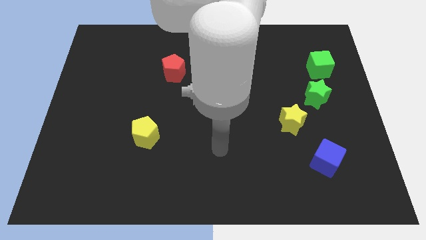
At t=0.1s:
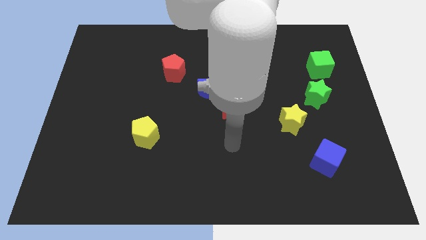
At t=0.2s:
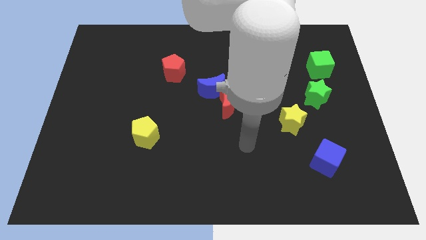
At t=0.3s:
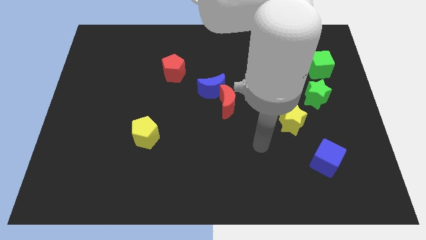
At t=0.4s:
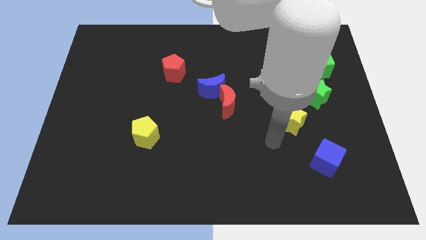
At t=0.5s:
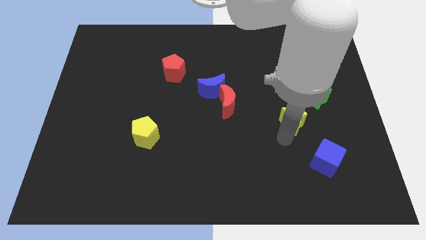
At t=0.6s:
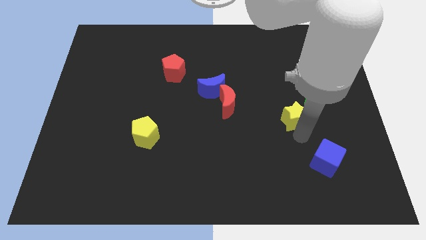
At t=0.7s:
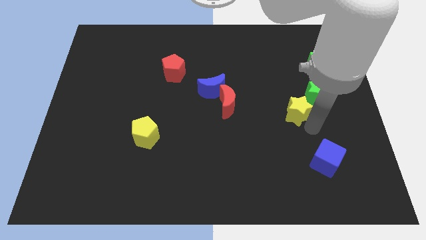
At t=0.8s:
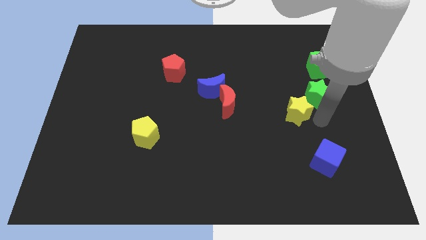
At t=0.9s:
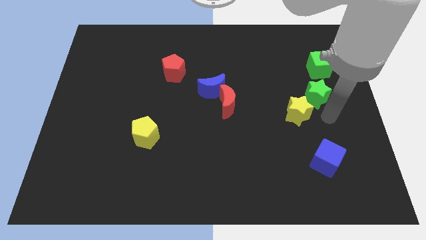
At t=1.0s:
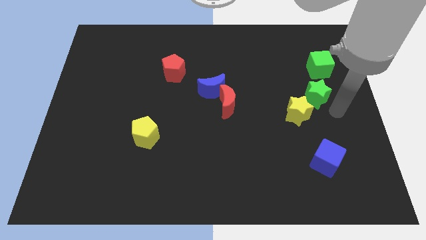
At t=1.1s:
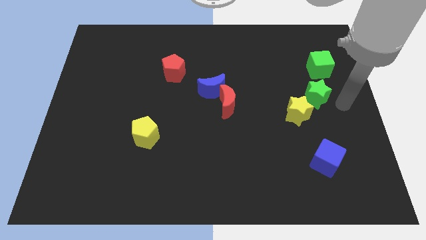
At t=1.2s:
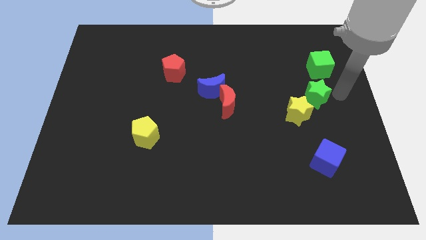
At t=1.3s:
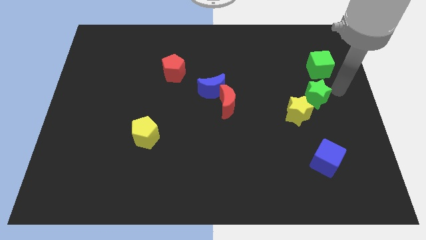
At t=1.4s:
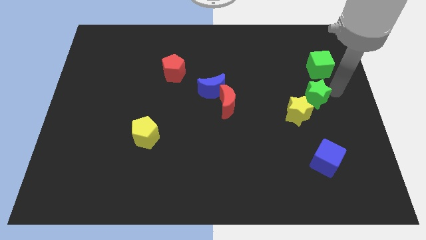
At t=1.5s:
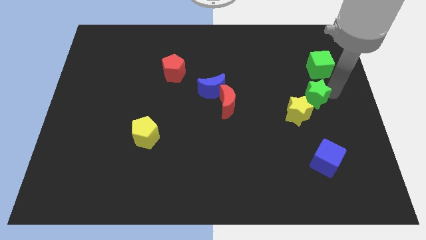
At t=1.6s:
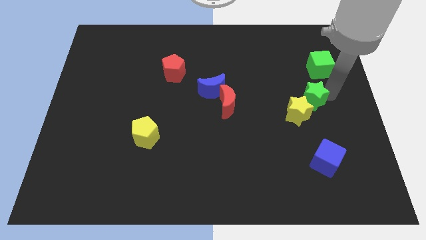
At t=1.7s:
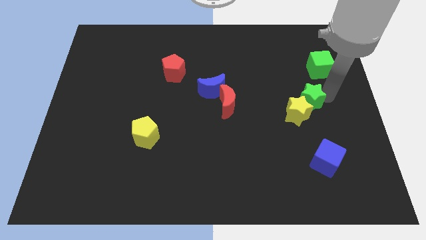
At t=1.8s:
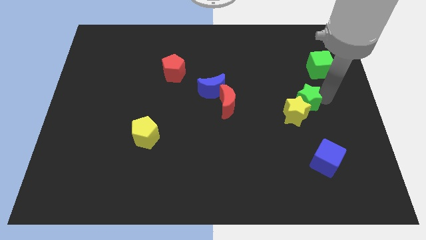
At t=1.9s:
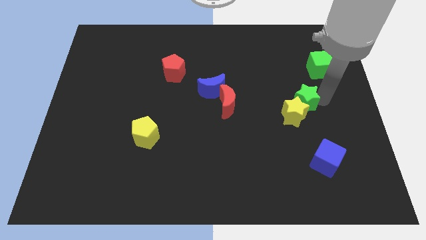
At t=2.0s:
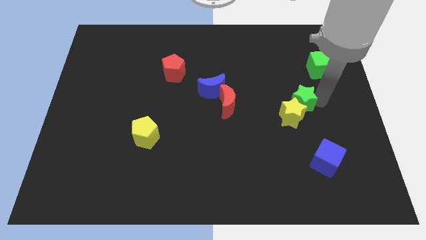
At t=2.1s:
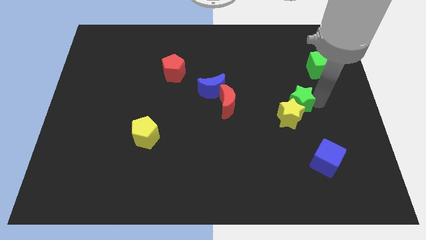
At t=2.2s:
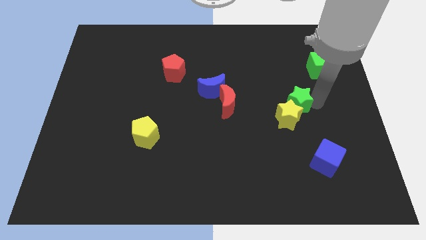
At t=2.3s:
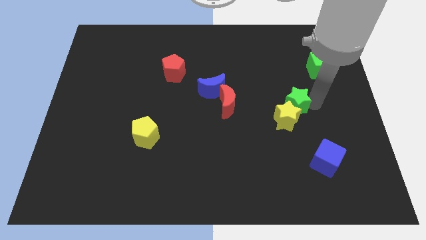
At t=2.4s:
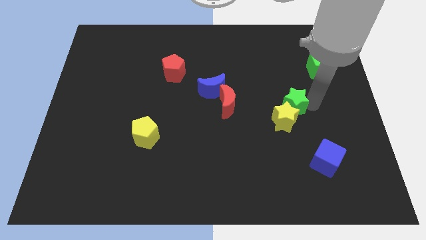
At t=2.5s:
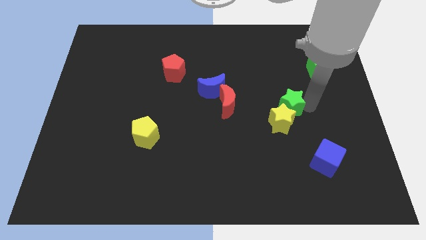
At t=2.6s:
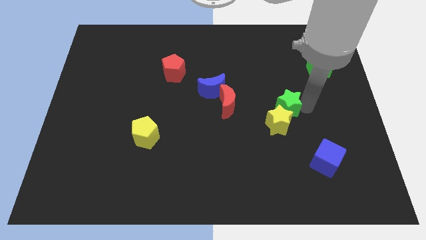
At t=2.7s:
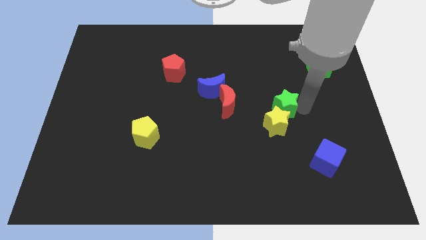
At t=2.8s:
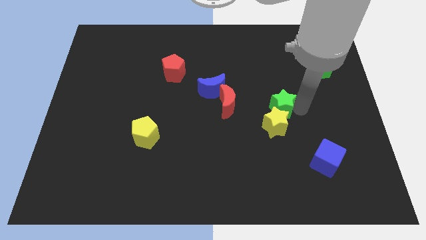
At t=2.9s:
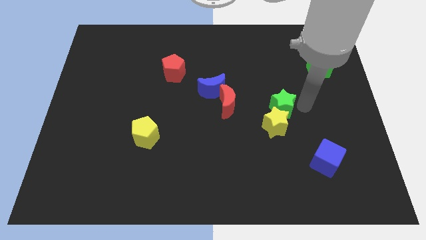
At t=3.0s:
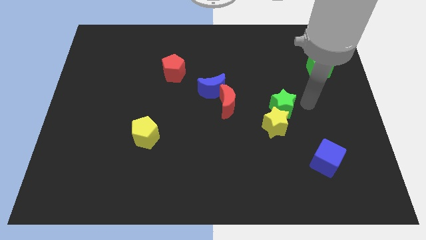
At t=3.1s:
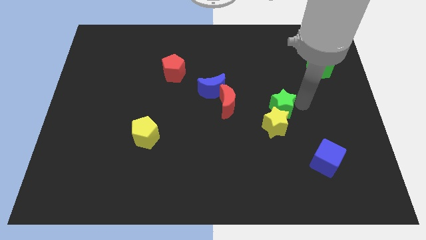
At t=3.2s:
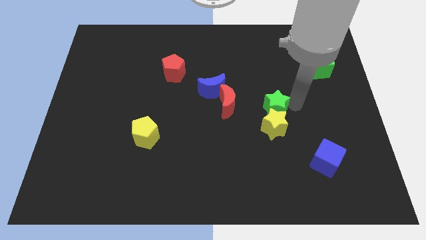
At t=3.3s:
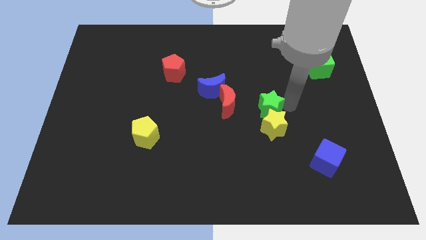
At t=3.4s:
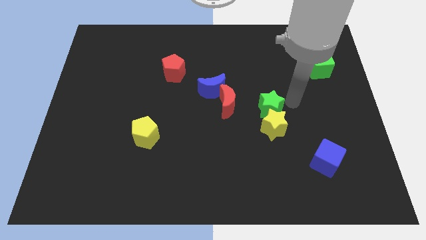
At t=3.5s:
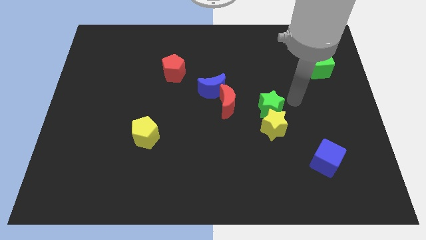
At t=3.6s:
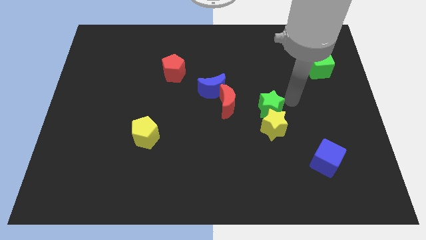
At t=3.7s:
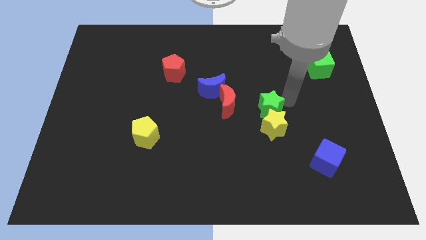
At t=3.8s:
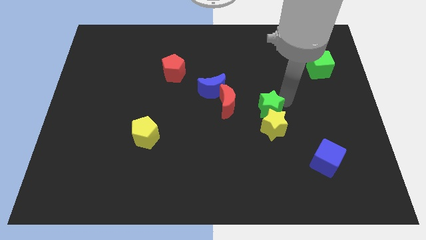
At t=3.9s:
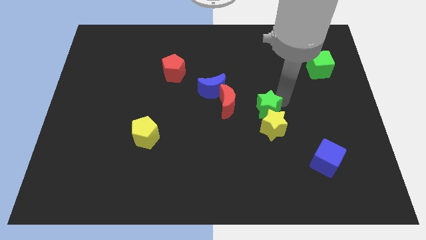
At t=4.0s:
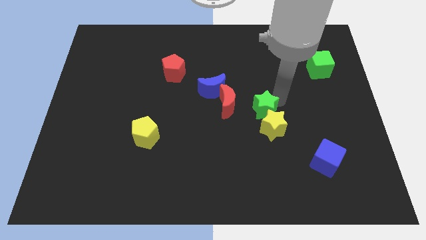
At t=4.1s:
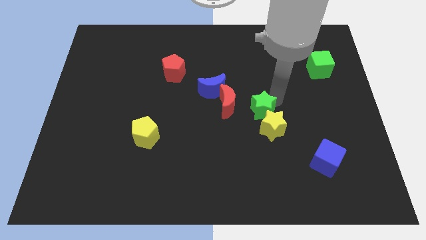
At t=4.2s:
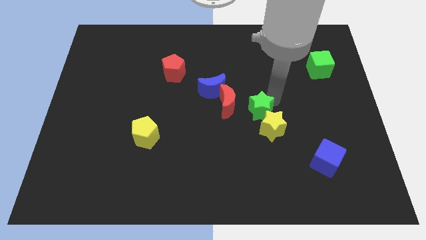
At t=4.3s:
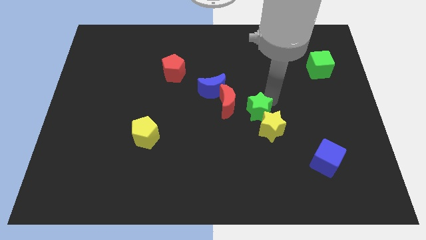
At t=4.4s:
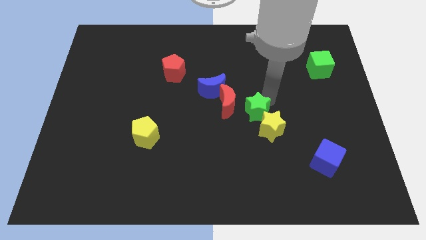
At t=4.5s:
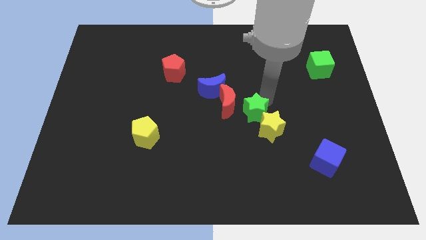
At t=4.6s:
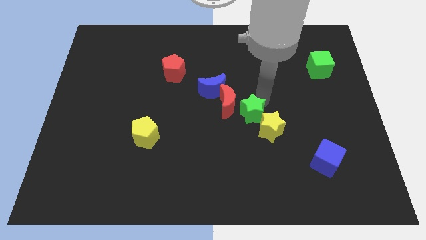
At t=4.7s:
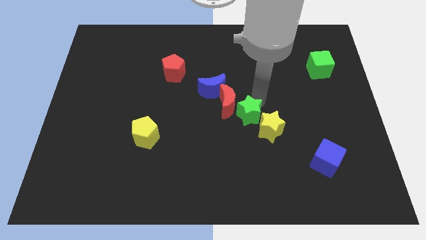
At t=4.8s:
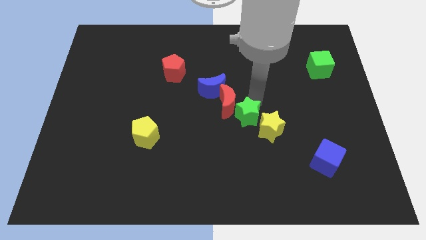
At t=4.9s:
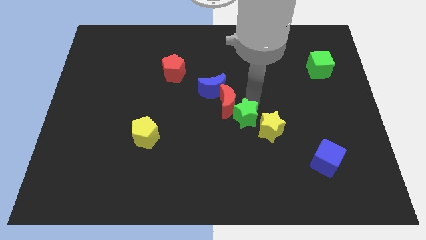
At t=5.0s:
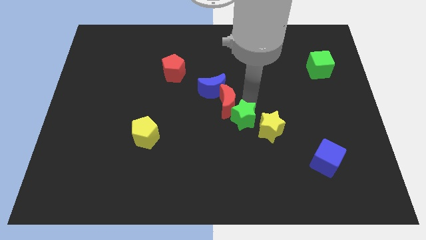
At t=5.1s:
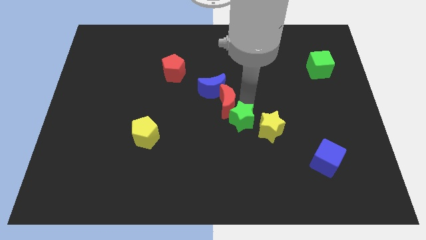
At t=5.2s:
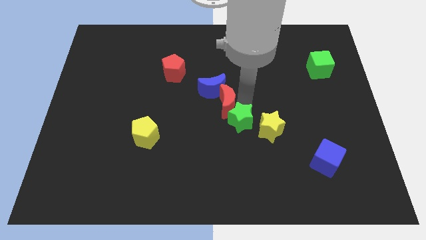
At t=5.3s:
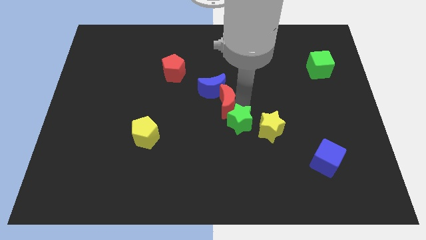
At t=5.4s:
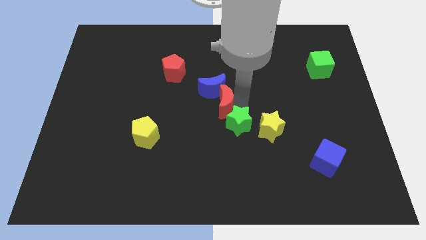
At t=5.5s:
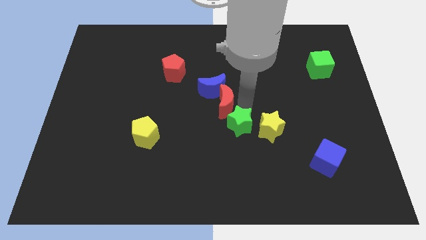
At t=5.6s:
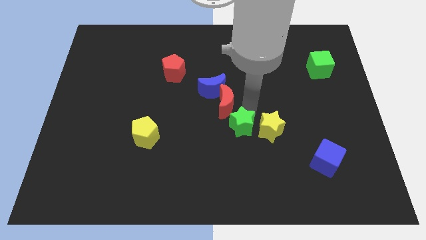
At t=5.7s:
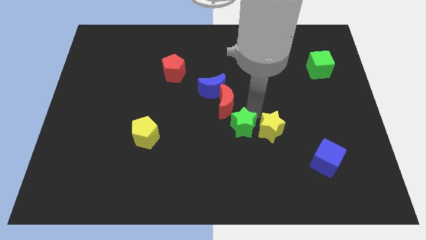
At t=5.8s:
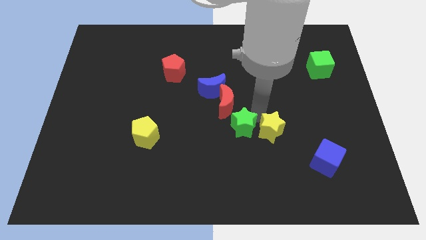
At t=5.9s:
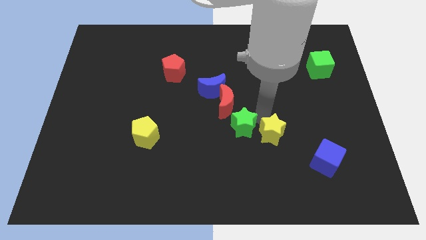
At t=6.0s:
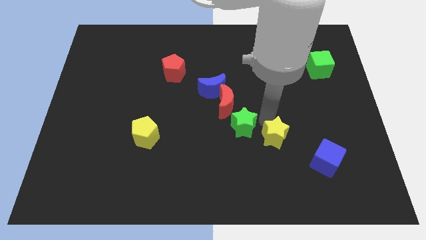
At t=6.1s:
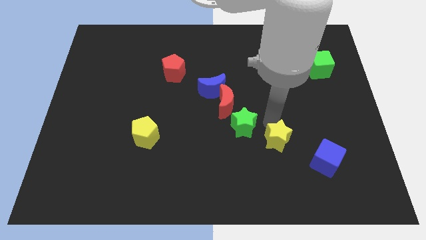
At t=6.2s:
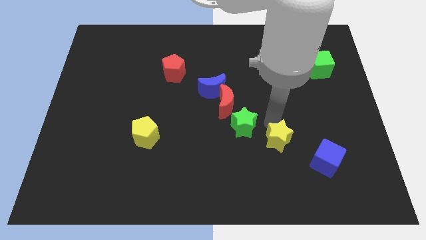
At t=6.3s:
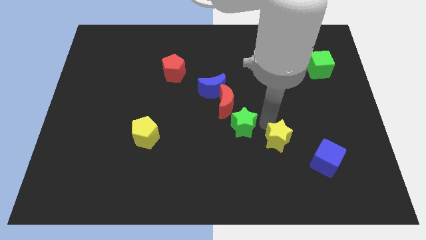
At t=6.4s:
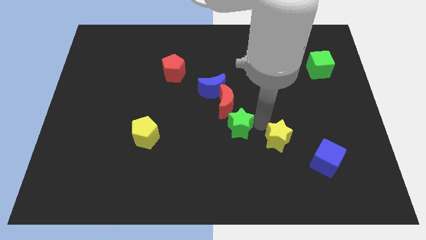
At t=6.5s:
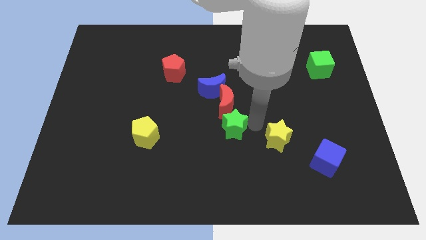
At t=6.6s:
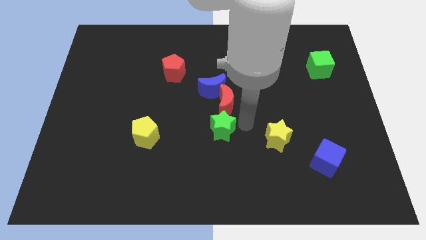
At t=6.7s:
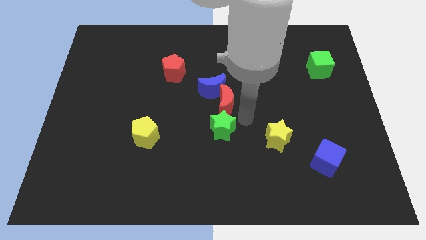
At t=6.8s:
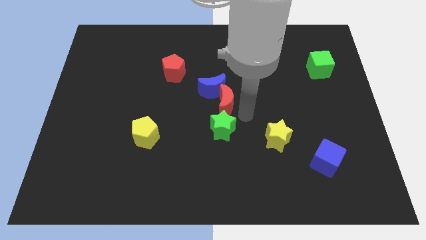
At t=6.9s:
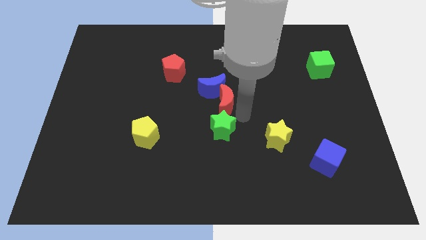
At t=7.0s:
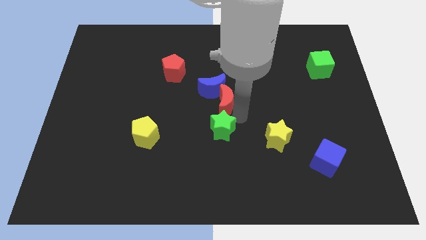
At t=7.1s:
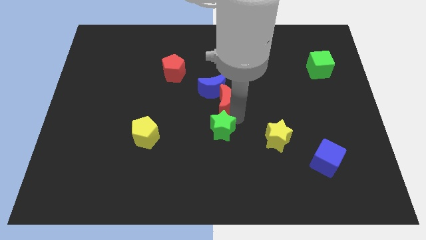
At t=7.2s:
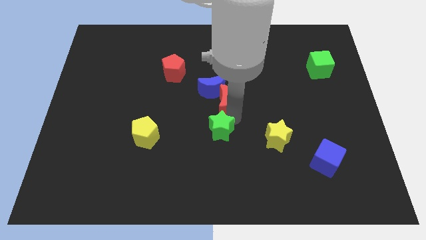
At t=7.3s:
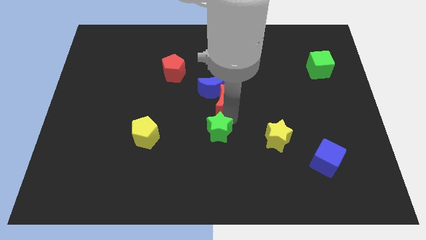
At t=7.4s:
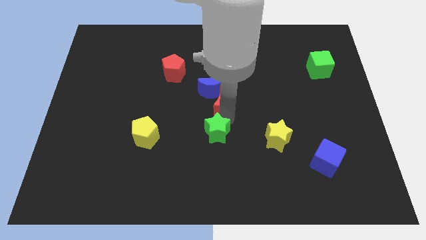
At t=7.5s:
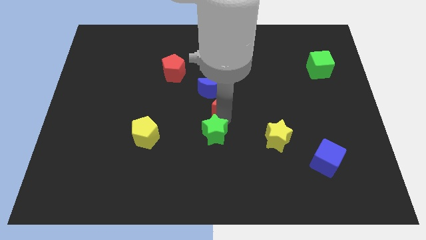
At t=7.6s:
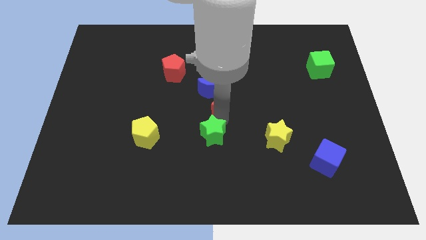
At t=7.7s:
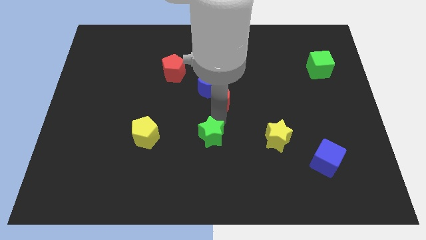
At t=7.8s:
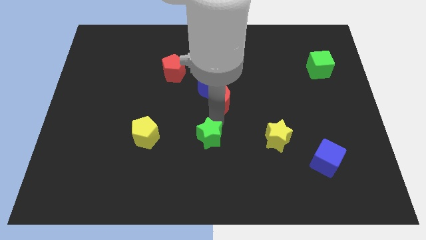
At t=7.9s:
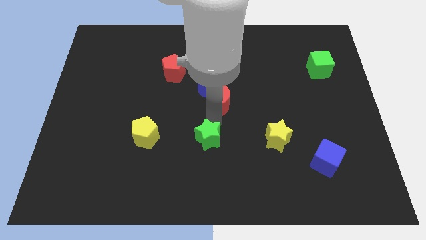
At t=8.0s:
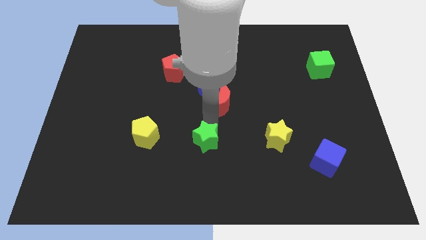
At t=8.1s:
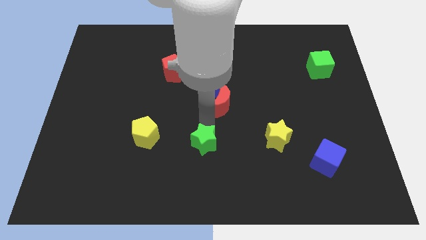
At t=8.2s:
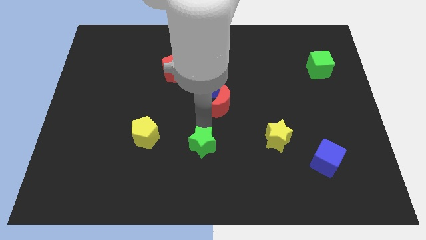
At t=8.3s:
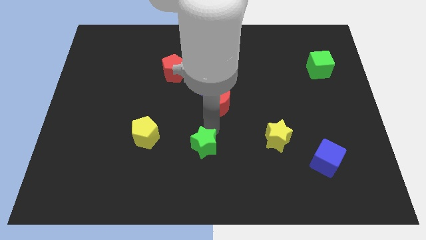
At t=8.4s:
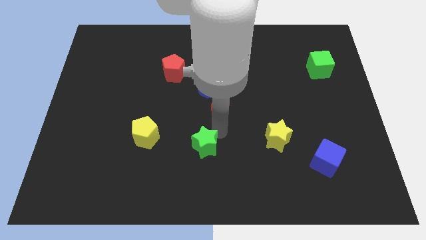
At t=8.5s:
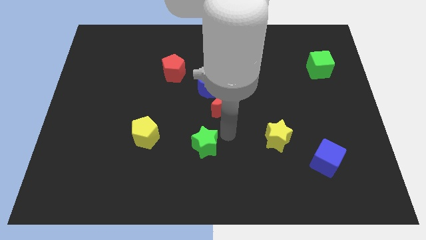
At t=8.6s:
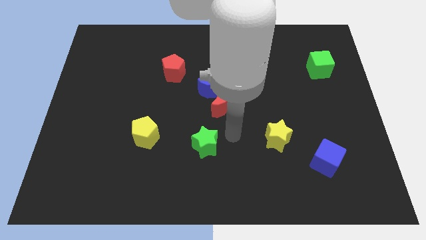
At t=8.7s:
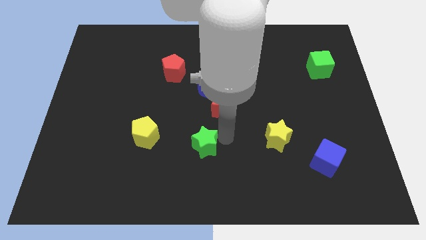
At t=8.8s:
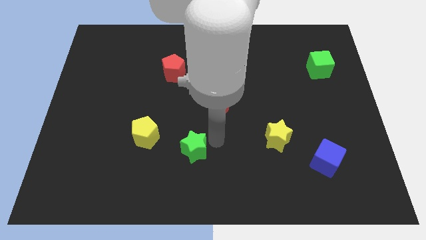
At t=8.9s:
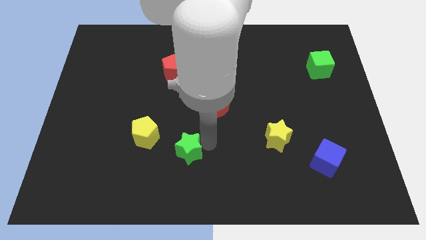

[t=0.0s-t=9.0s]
put the green star to the bottom right side of the yellow pentagon
